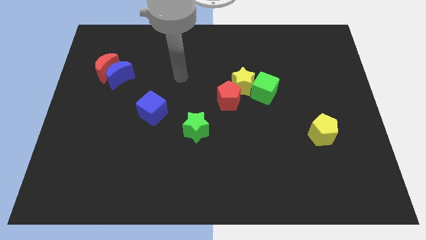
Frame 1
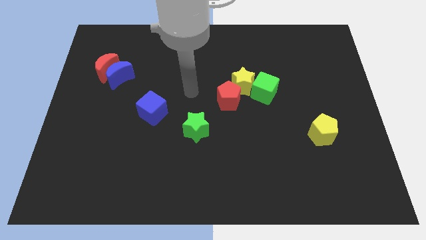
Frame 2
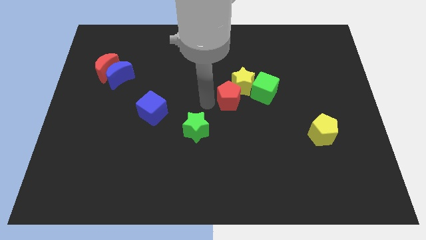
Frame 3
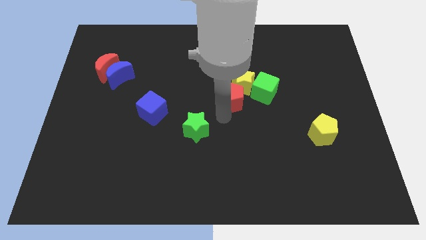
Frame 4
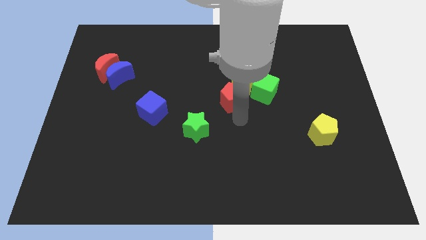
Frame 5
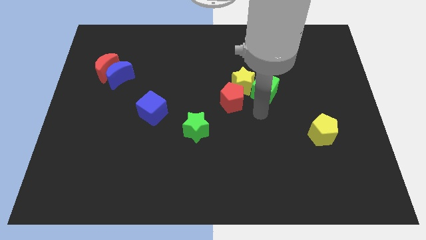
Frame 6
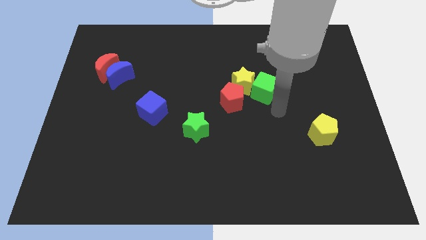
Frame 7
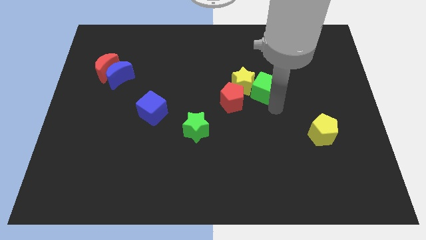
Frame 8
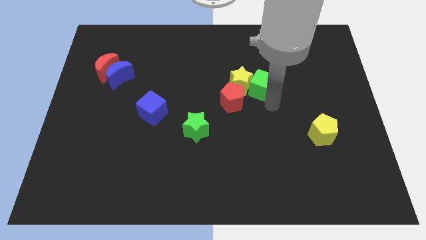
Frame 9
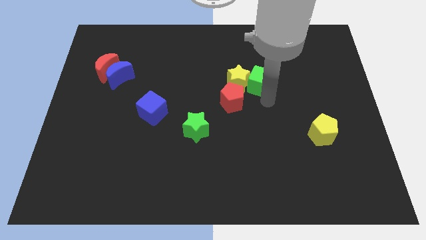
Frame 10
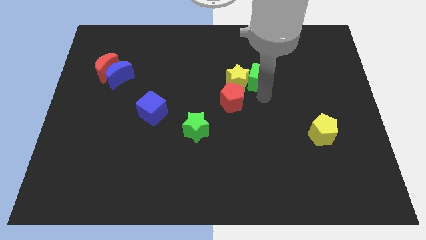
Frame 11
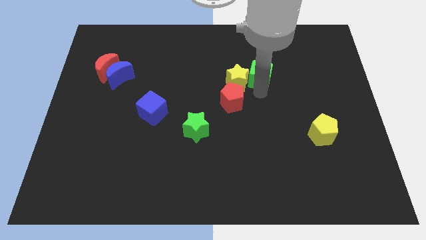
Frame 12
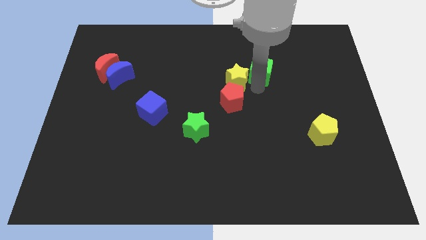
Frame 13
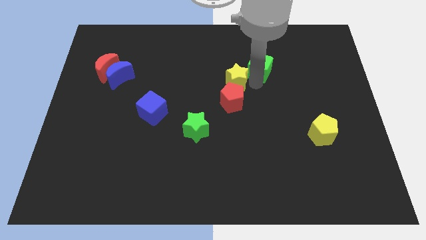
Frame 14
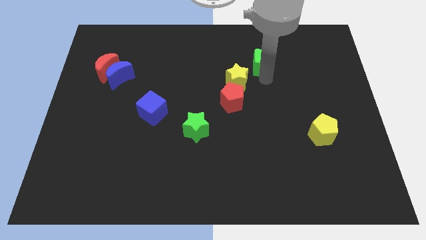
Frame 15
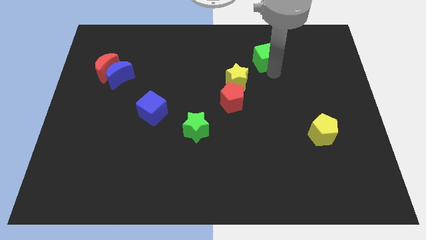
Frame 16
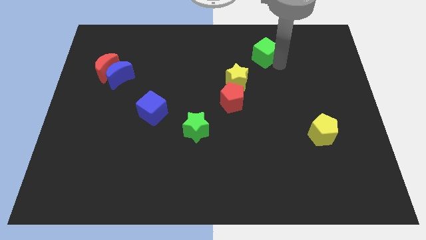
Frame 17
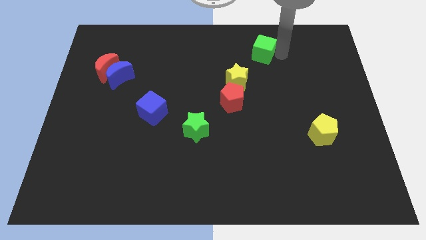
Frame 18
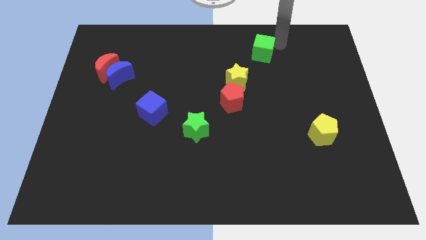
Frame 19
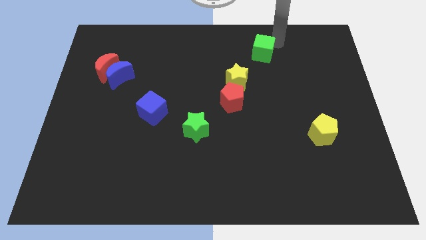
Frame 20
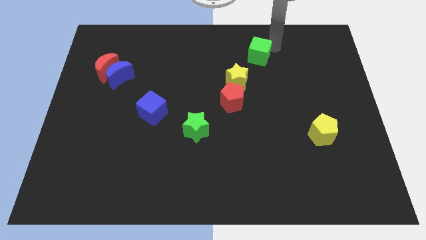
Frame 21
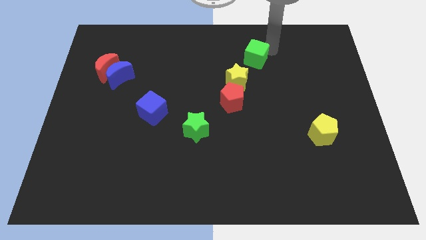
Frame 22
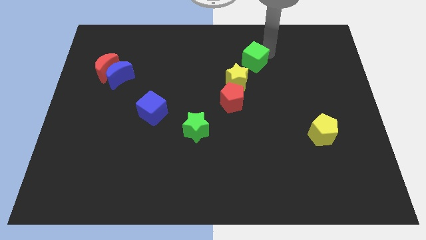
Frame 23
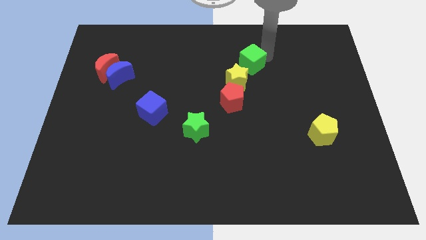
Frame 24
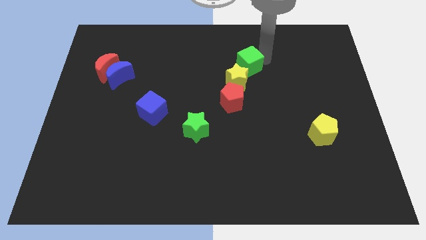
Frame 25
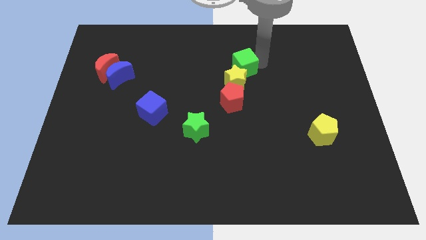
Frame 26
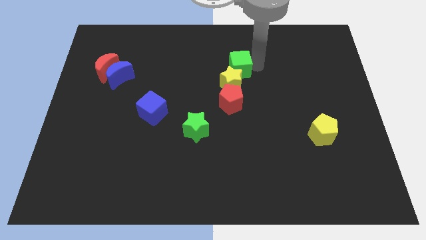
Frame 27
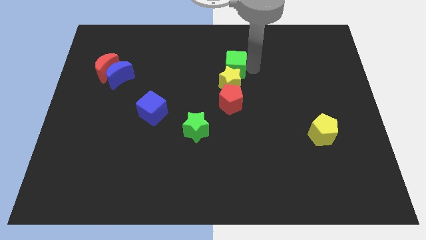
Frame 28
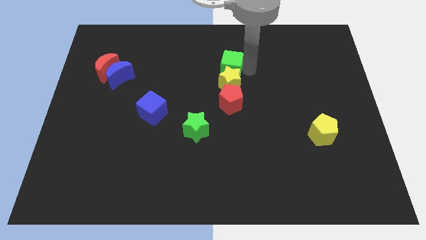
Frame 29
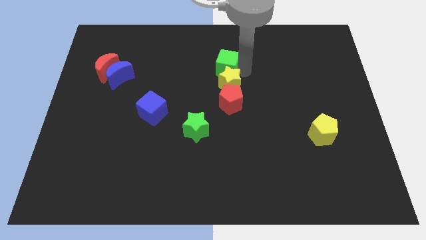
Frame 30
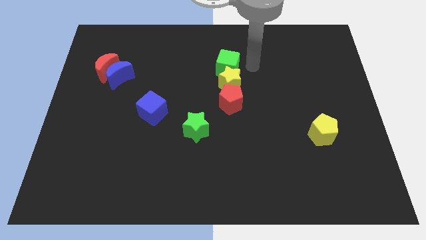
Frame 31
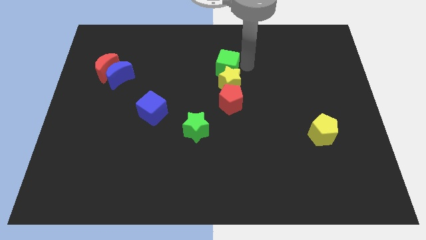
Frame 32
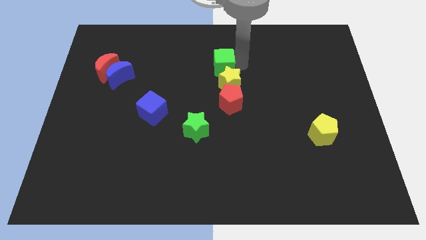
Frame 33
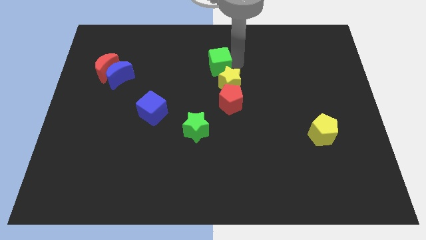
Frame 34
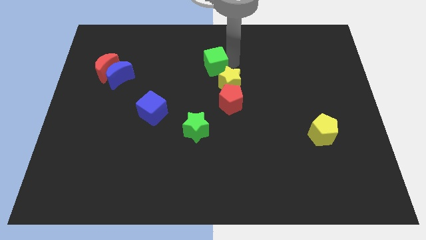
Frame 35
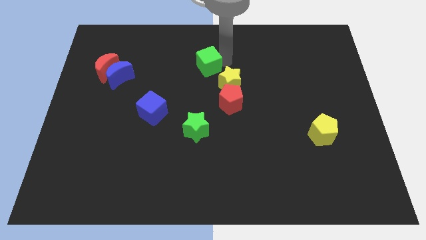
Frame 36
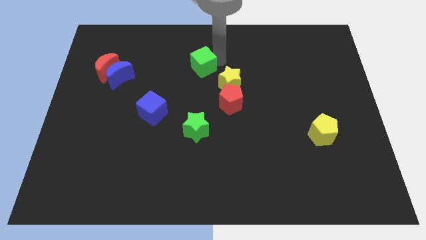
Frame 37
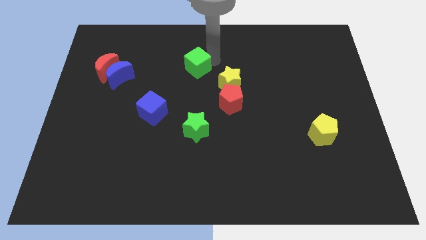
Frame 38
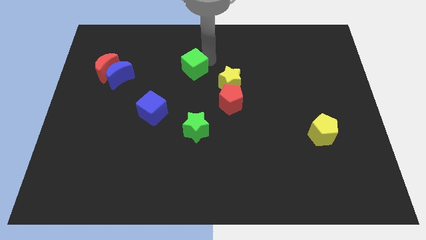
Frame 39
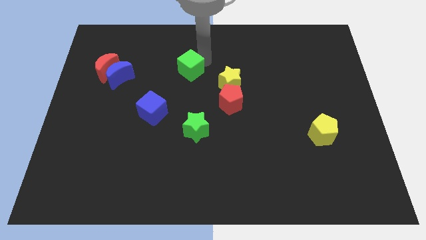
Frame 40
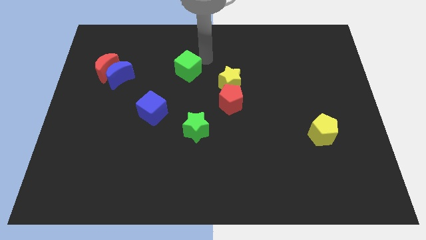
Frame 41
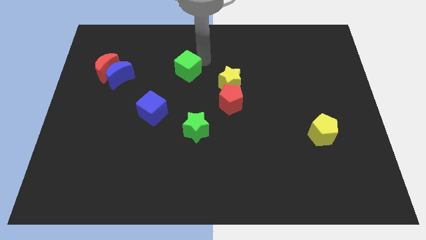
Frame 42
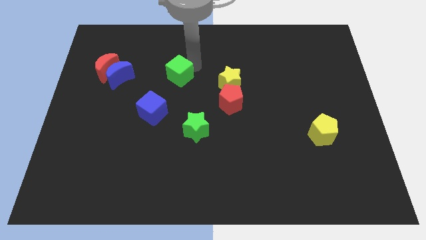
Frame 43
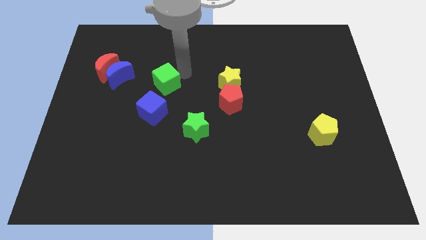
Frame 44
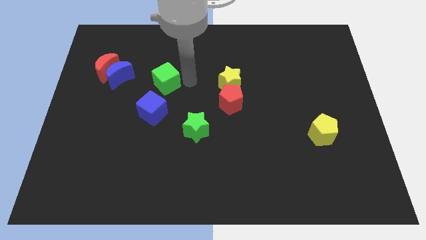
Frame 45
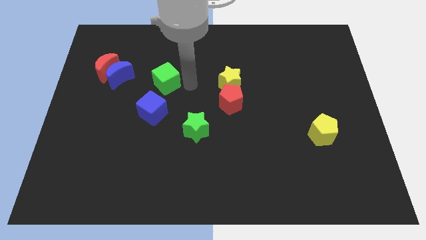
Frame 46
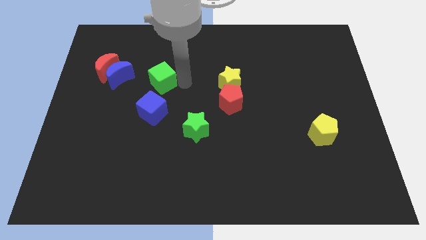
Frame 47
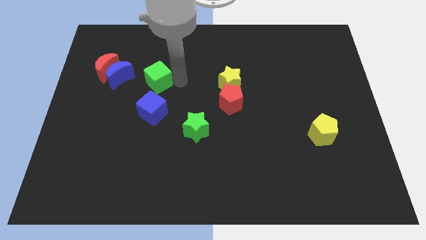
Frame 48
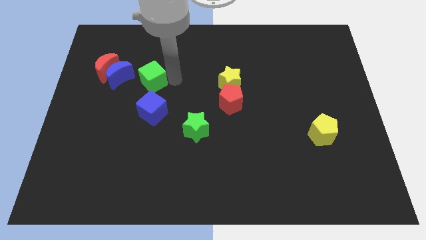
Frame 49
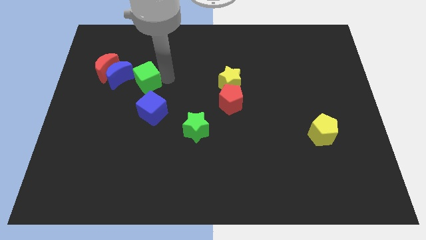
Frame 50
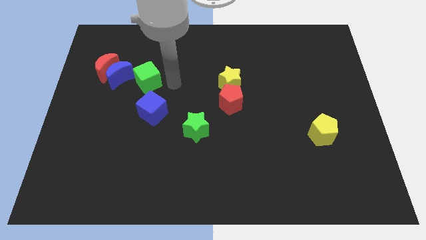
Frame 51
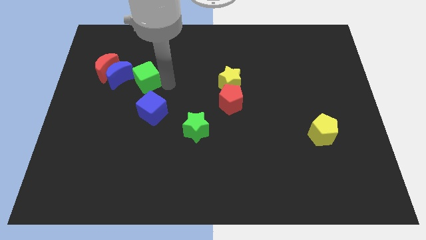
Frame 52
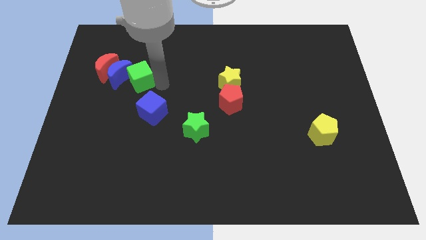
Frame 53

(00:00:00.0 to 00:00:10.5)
move the green cube close to the blue moon

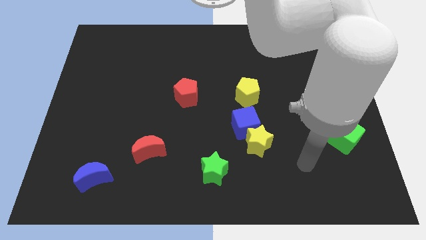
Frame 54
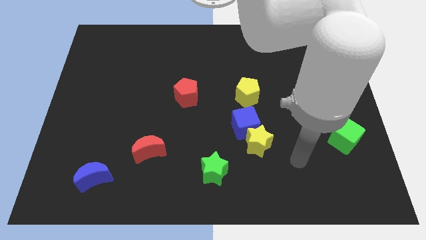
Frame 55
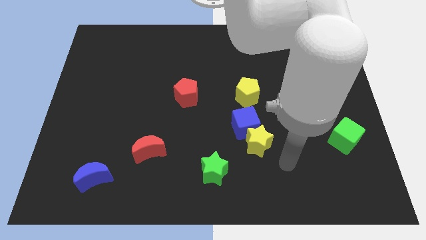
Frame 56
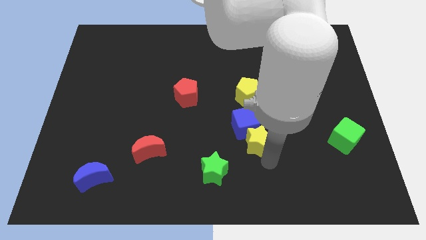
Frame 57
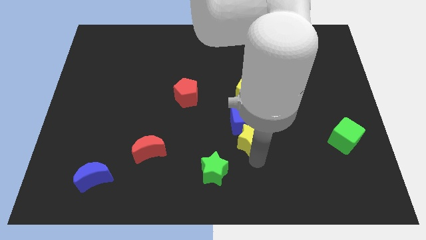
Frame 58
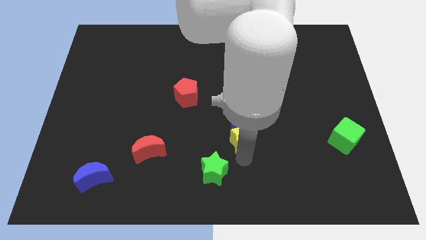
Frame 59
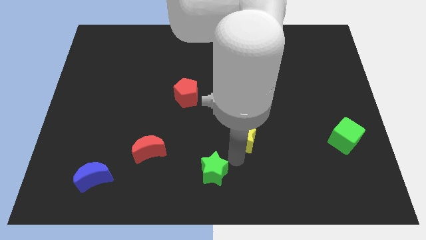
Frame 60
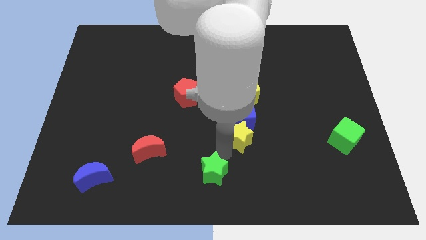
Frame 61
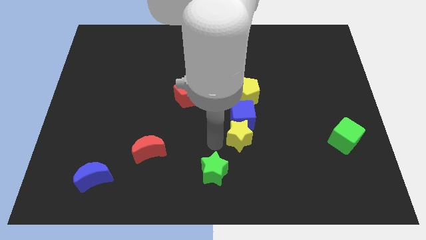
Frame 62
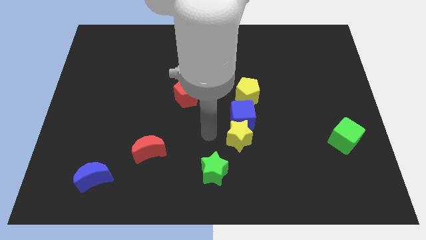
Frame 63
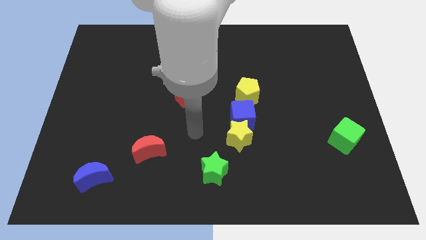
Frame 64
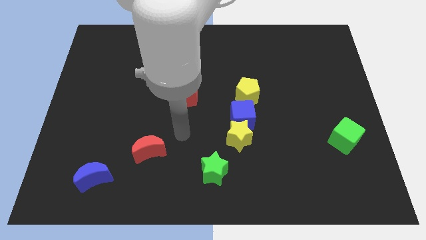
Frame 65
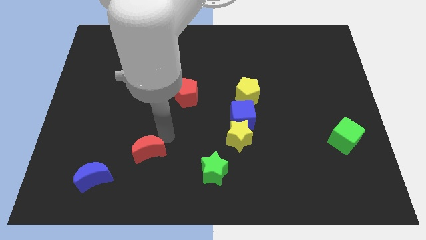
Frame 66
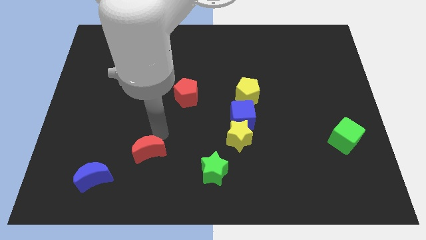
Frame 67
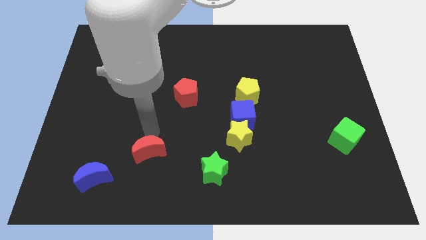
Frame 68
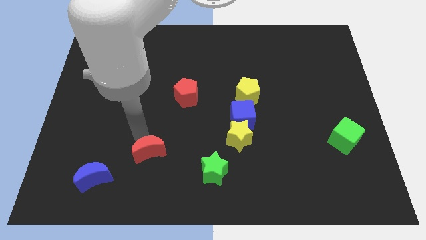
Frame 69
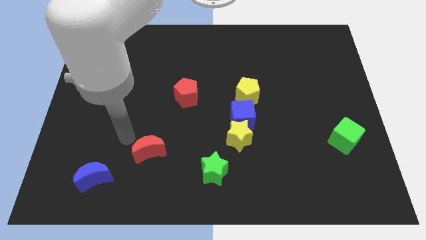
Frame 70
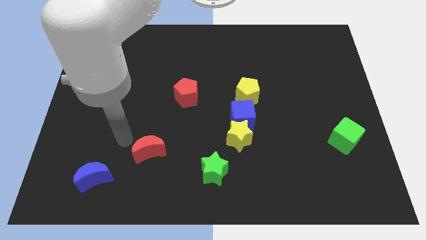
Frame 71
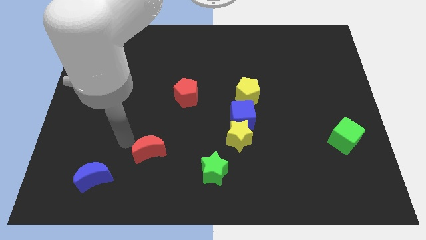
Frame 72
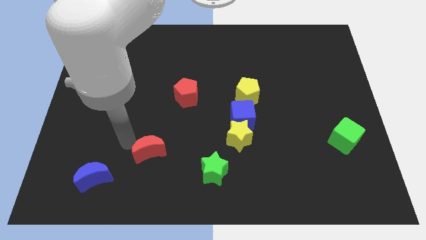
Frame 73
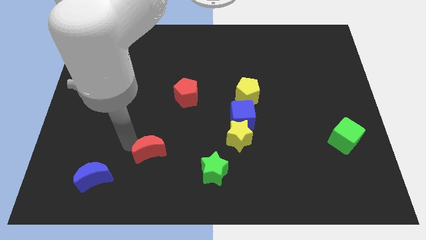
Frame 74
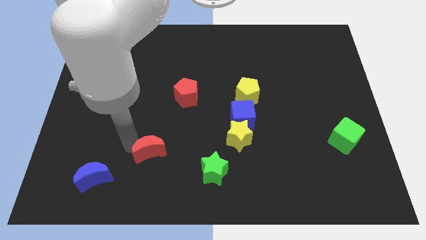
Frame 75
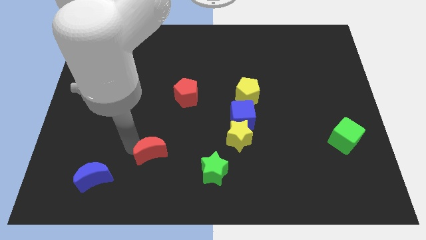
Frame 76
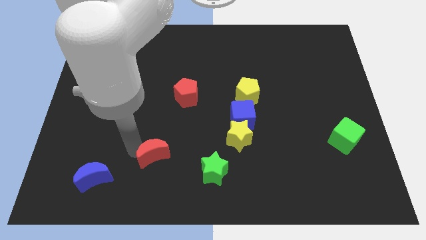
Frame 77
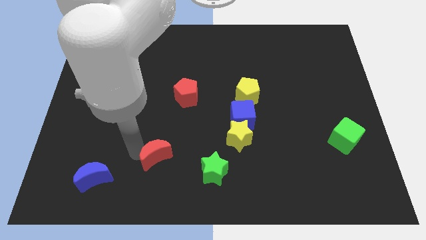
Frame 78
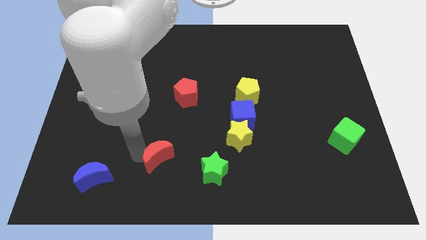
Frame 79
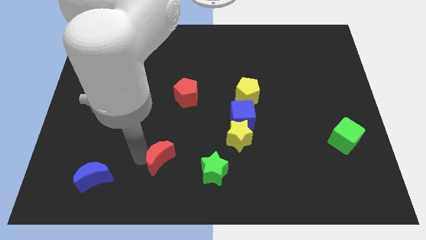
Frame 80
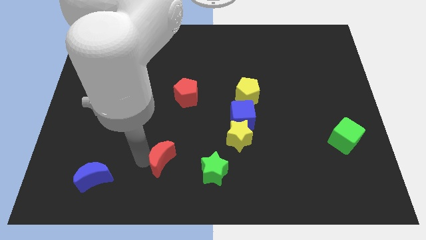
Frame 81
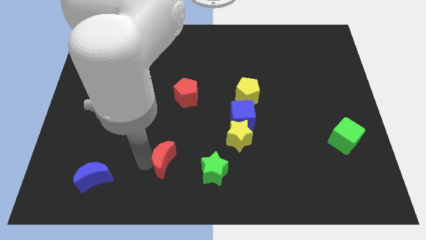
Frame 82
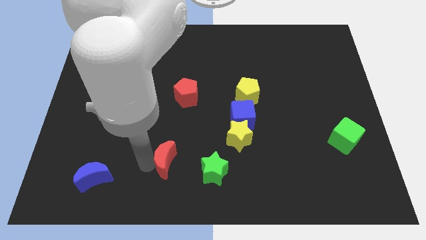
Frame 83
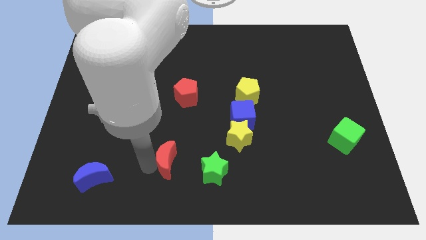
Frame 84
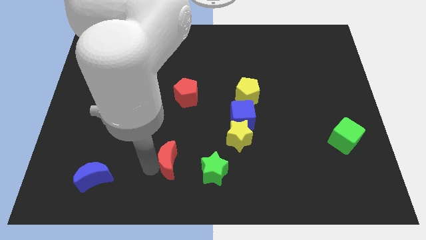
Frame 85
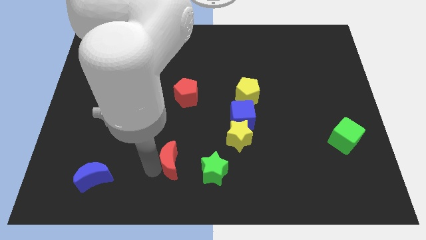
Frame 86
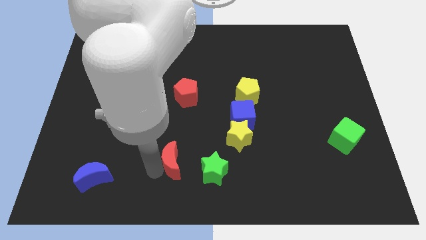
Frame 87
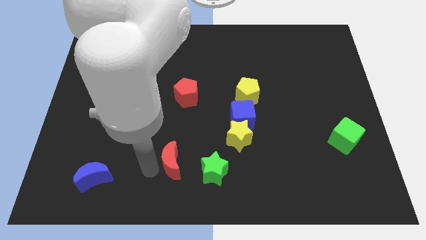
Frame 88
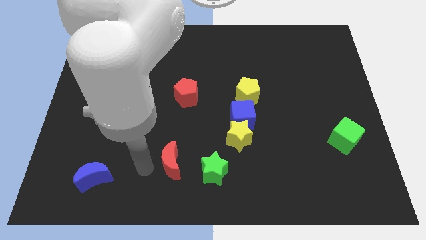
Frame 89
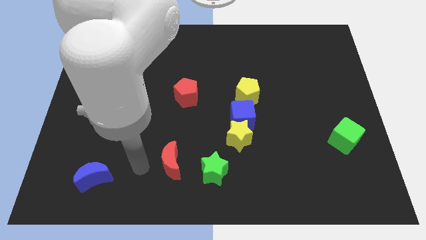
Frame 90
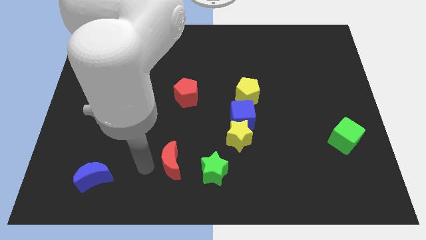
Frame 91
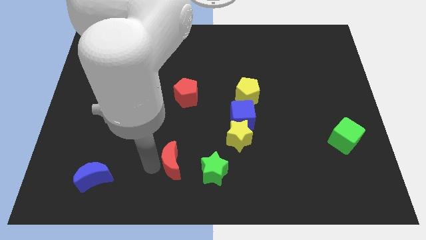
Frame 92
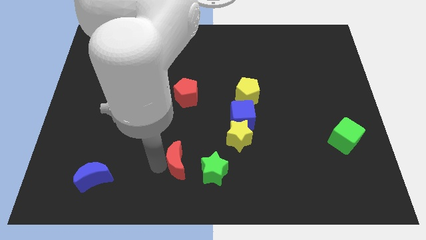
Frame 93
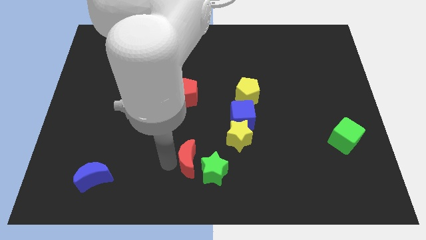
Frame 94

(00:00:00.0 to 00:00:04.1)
put the red moon close to the green star
